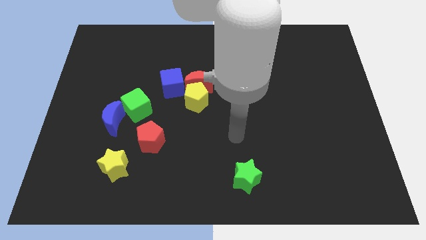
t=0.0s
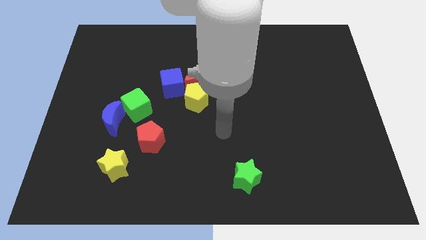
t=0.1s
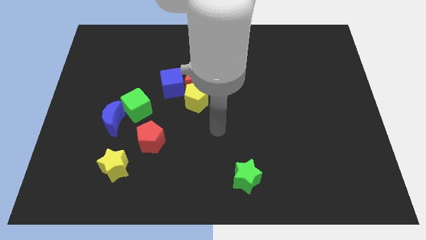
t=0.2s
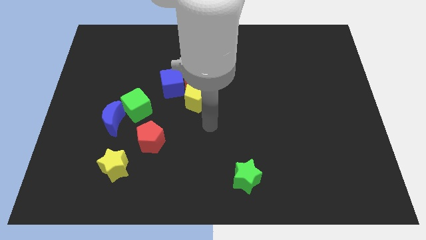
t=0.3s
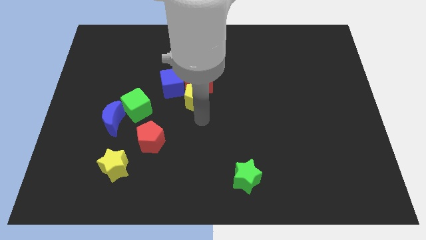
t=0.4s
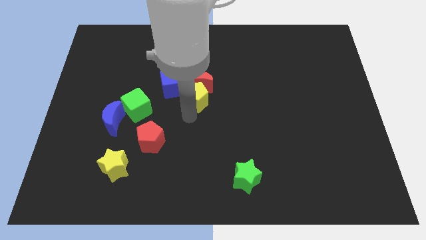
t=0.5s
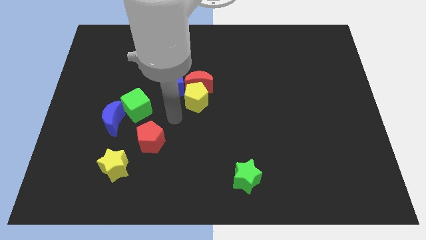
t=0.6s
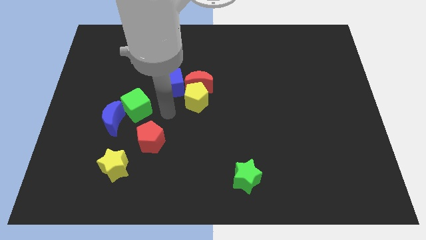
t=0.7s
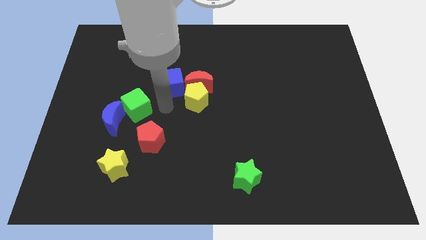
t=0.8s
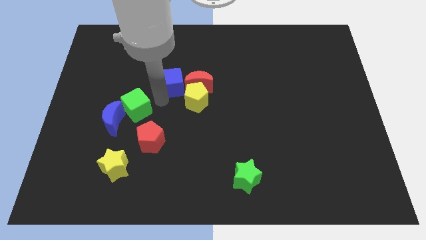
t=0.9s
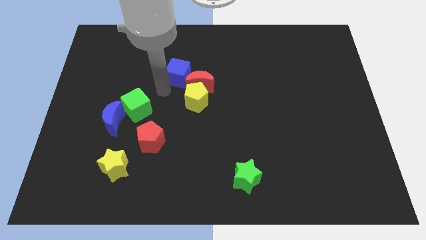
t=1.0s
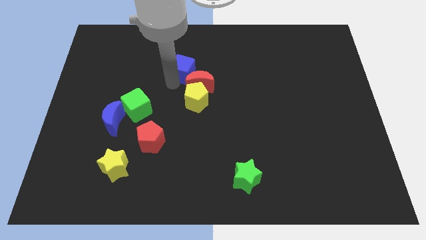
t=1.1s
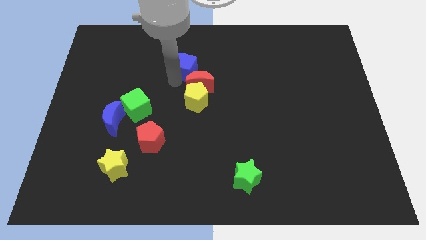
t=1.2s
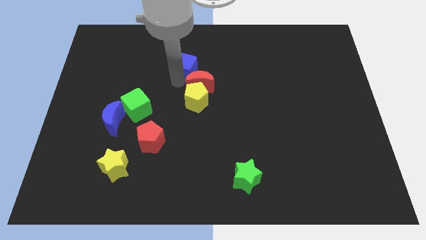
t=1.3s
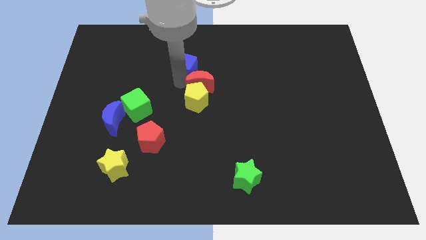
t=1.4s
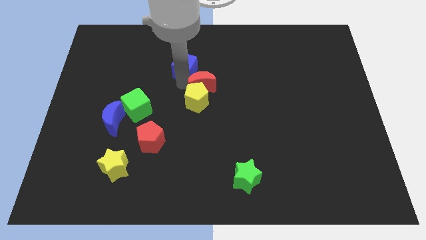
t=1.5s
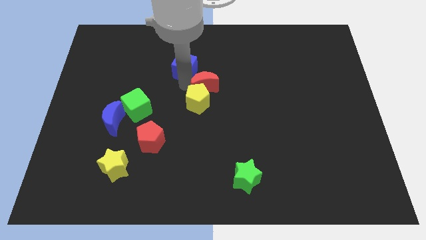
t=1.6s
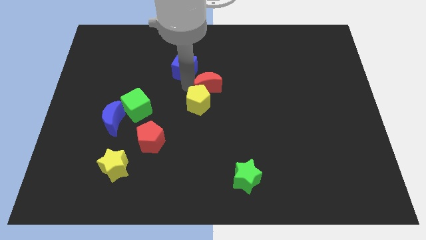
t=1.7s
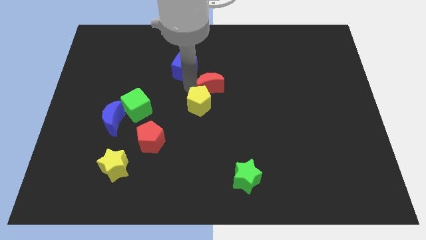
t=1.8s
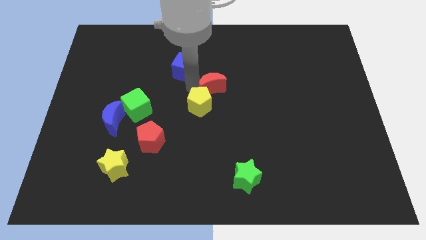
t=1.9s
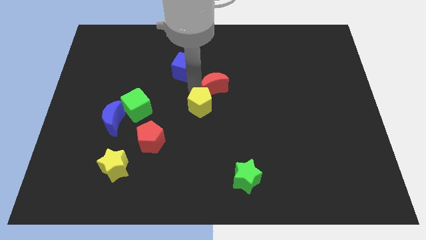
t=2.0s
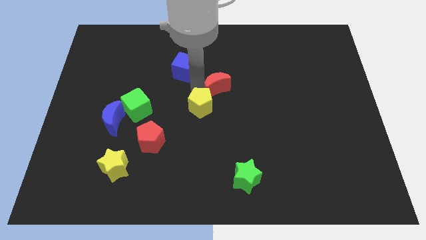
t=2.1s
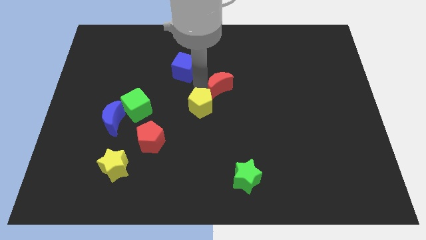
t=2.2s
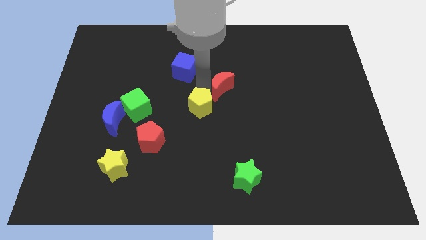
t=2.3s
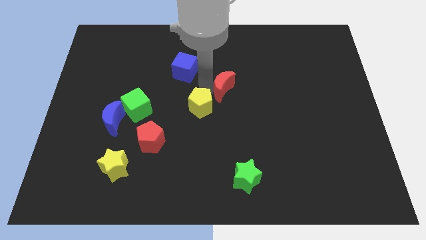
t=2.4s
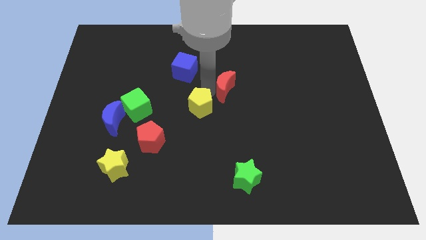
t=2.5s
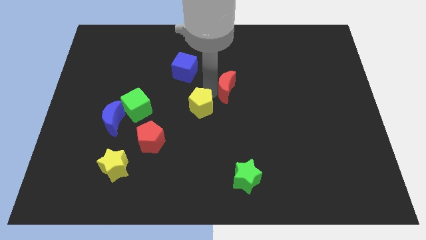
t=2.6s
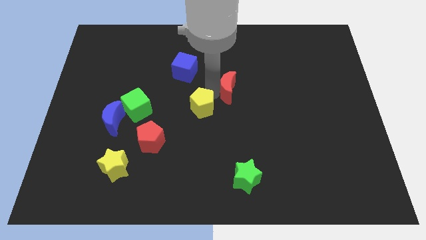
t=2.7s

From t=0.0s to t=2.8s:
move the red moon slightly right

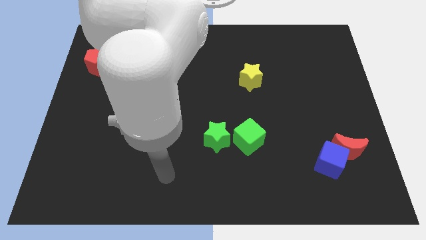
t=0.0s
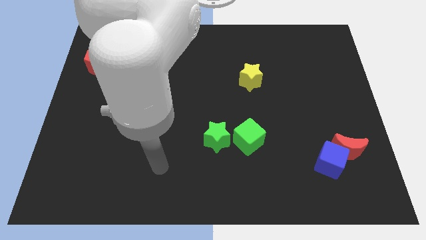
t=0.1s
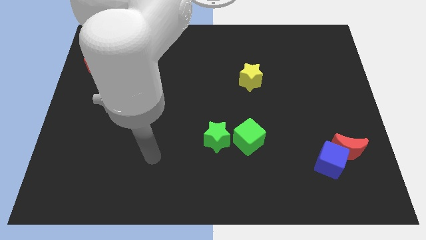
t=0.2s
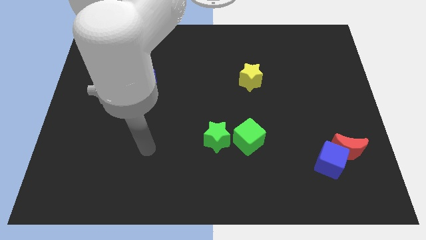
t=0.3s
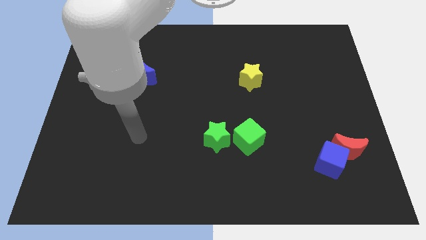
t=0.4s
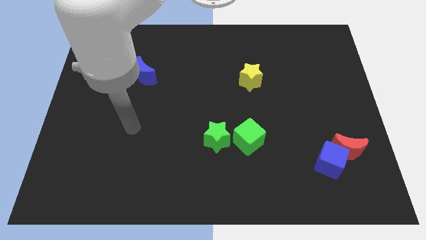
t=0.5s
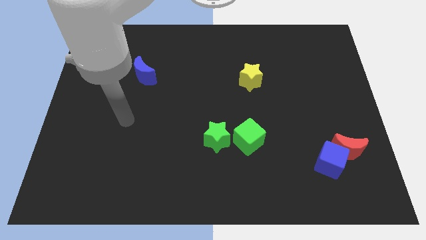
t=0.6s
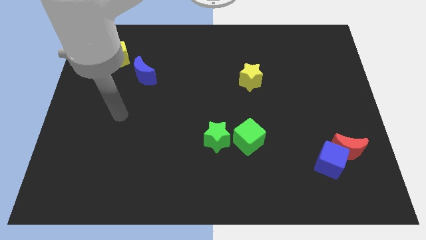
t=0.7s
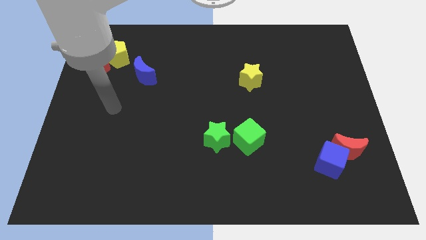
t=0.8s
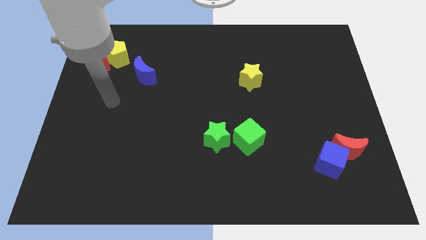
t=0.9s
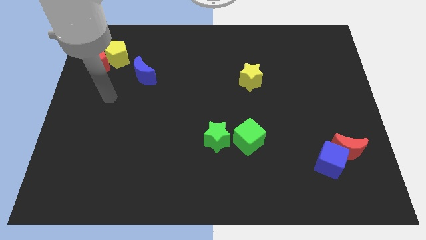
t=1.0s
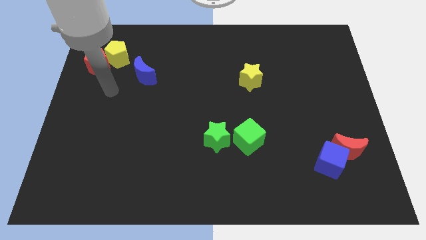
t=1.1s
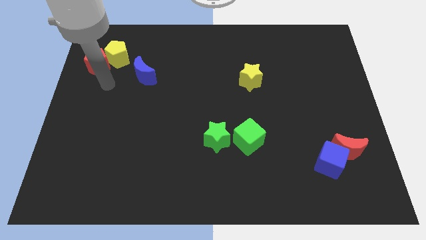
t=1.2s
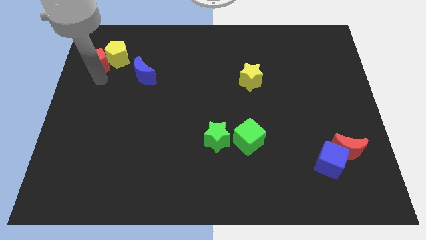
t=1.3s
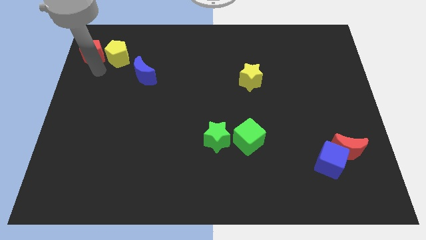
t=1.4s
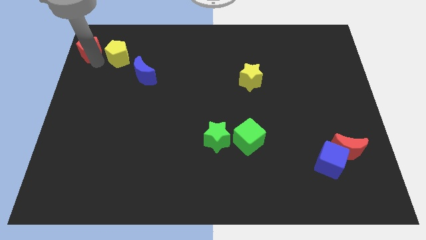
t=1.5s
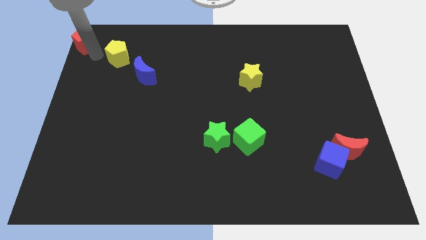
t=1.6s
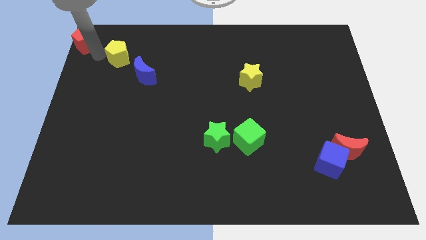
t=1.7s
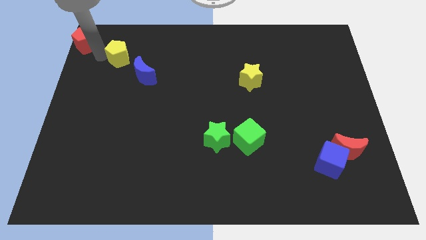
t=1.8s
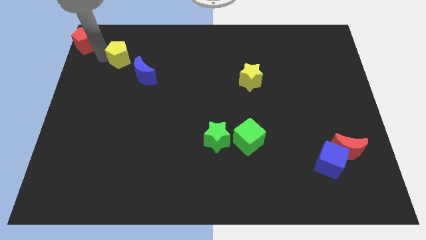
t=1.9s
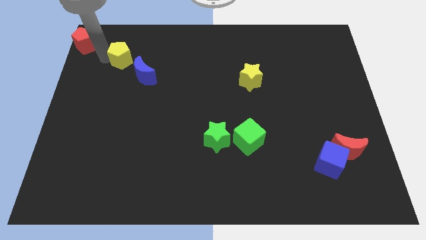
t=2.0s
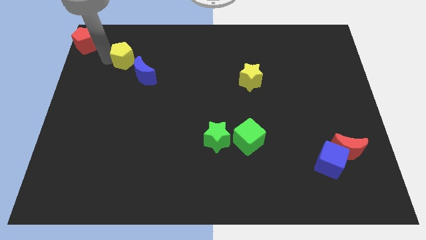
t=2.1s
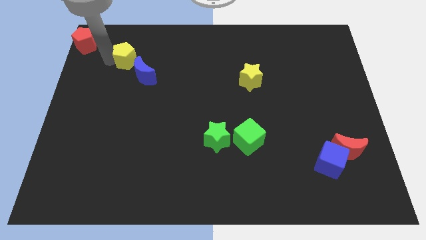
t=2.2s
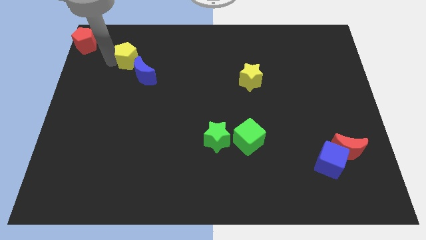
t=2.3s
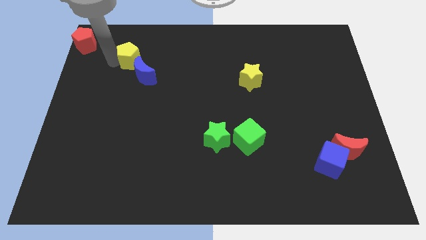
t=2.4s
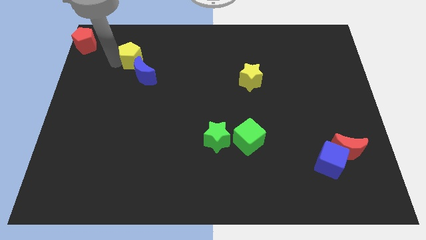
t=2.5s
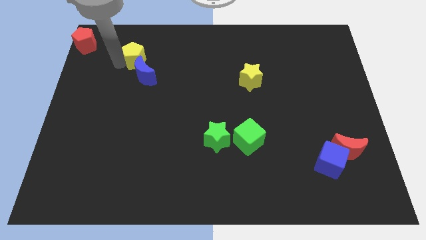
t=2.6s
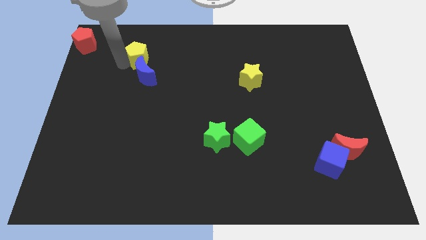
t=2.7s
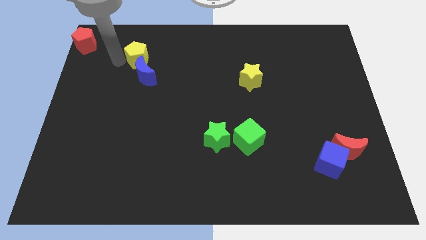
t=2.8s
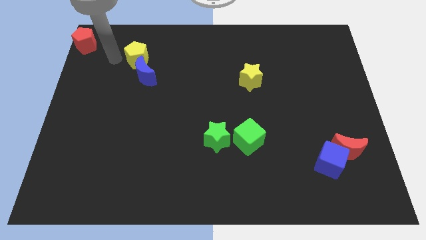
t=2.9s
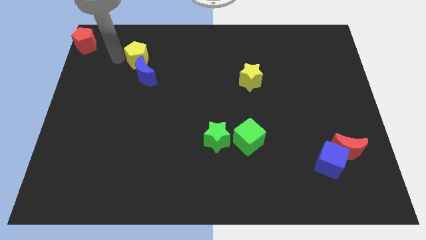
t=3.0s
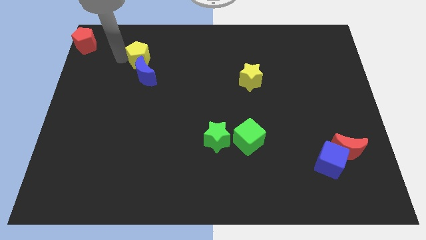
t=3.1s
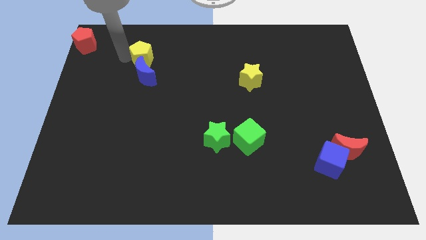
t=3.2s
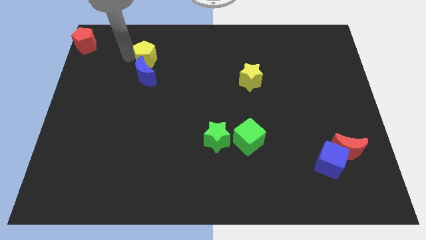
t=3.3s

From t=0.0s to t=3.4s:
push the yellow pentagon to the right a bit

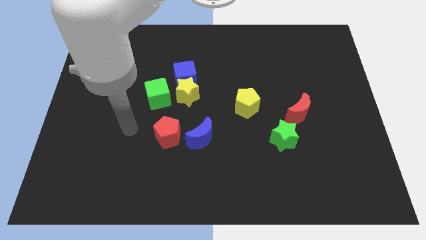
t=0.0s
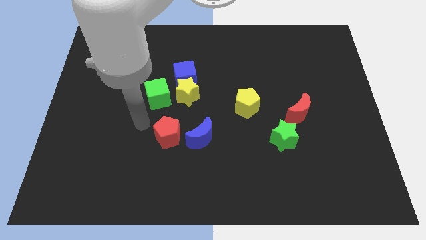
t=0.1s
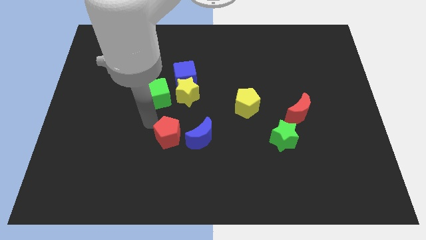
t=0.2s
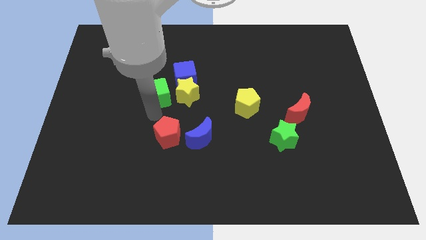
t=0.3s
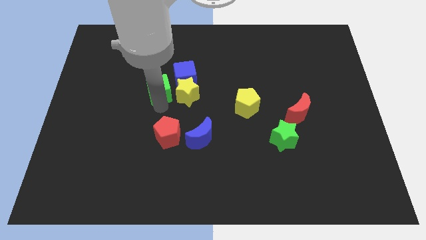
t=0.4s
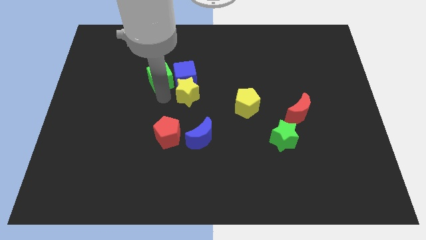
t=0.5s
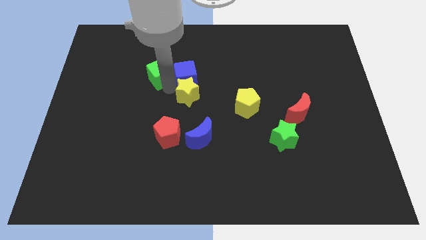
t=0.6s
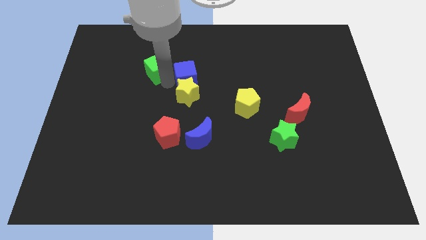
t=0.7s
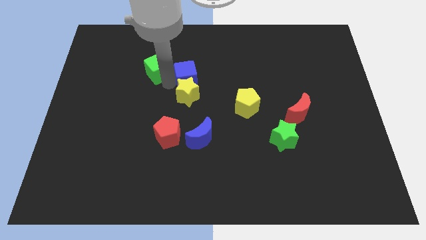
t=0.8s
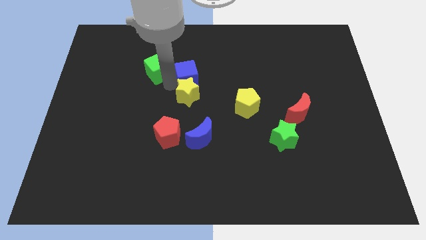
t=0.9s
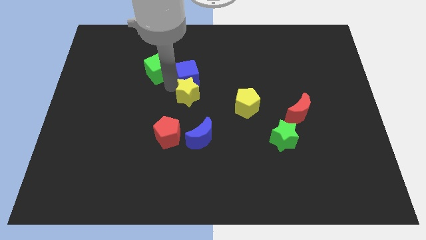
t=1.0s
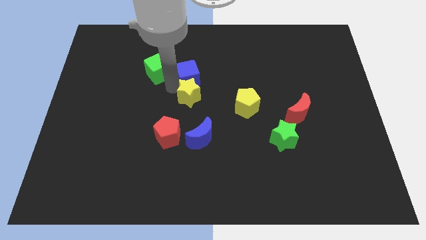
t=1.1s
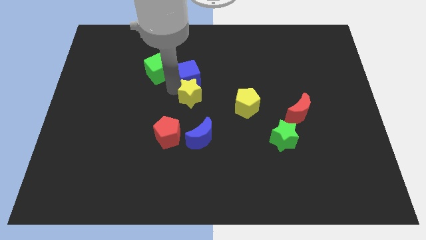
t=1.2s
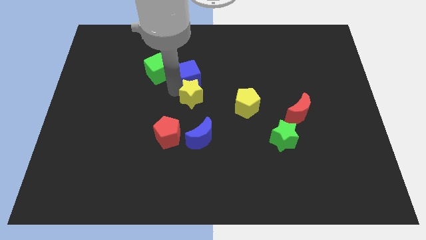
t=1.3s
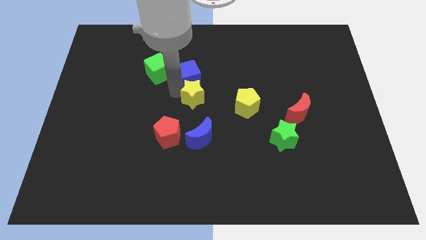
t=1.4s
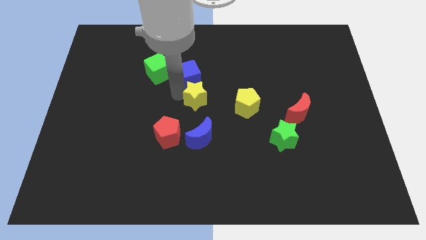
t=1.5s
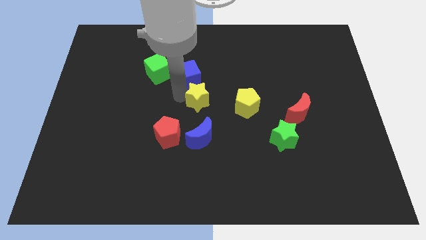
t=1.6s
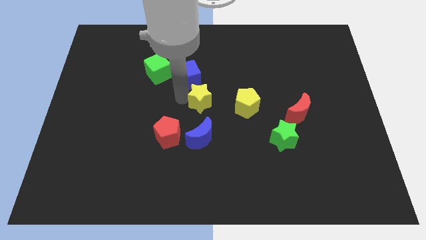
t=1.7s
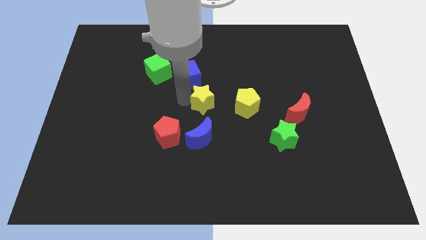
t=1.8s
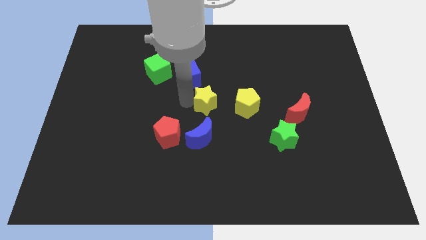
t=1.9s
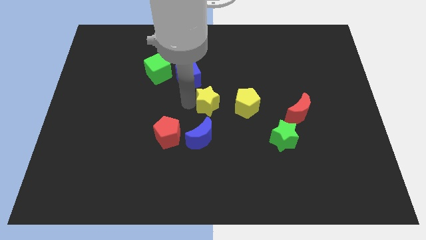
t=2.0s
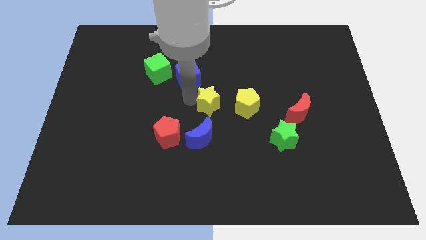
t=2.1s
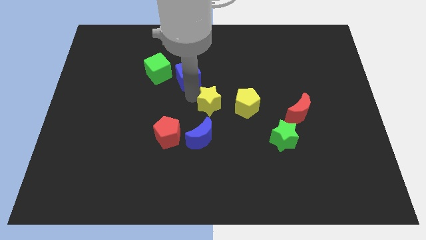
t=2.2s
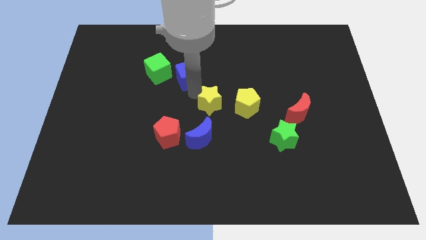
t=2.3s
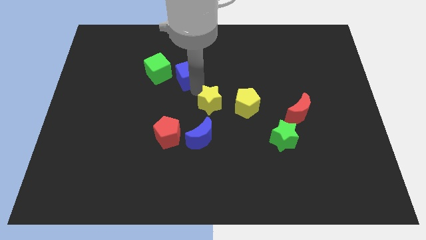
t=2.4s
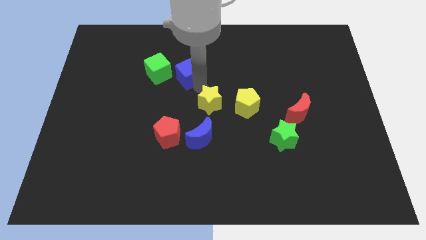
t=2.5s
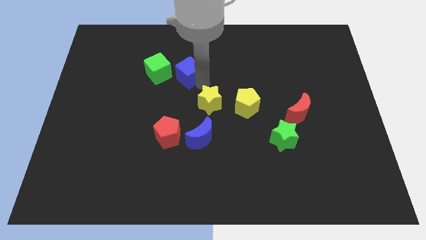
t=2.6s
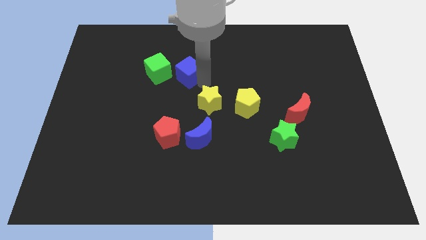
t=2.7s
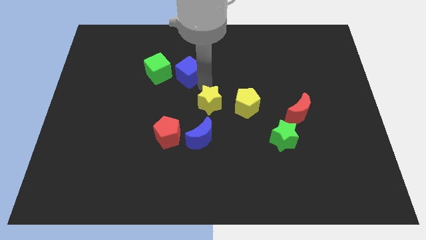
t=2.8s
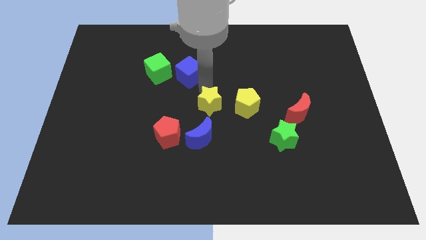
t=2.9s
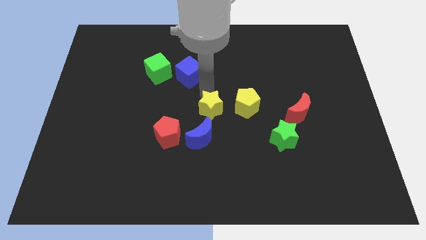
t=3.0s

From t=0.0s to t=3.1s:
slide the yellow star downwards and right diagonally a little bit
